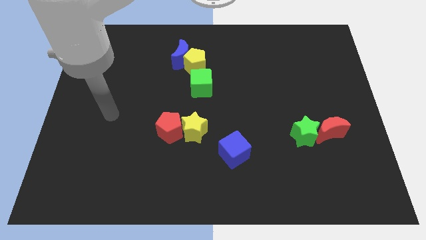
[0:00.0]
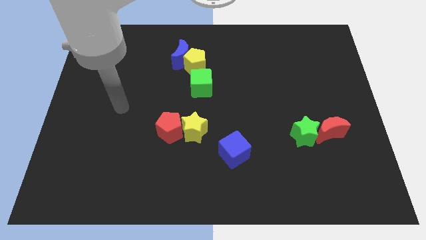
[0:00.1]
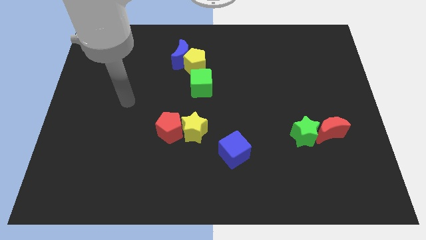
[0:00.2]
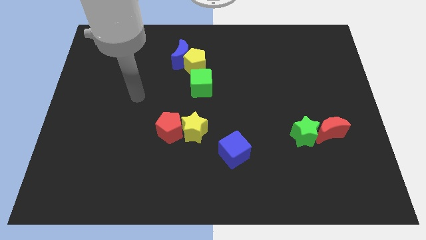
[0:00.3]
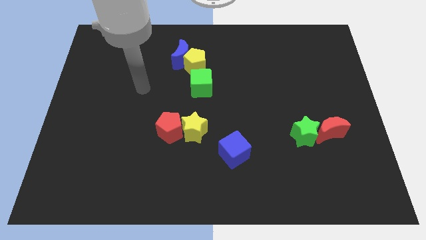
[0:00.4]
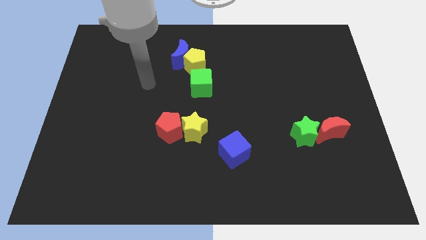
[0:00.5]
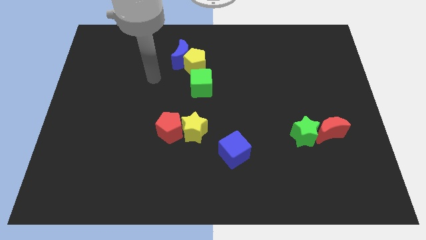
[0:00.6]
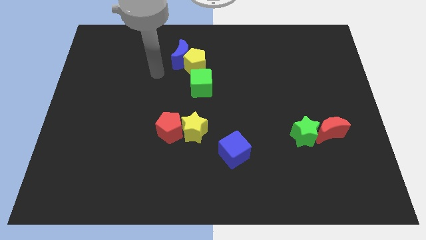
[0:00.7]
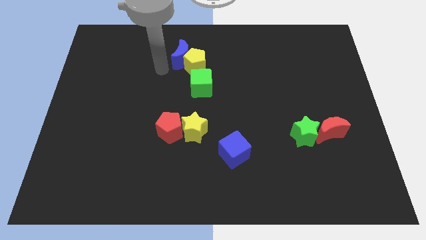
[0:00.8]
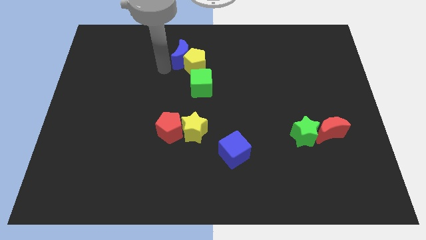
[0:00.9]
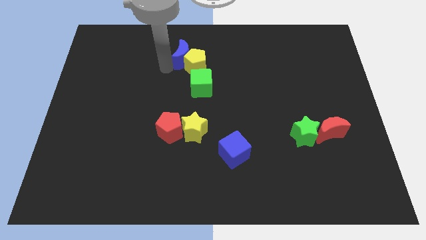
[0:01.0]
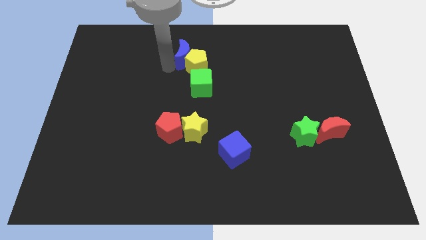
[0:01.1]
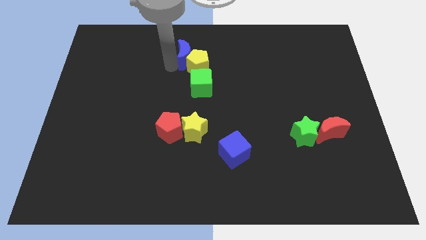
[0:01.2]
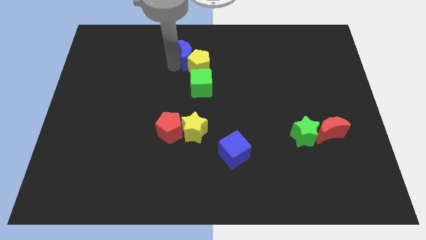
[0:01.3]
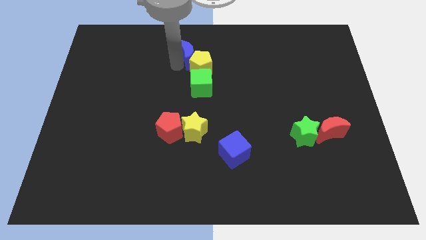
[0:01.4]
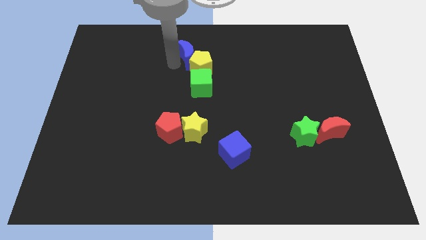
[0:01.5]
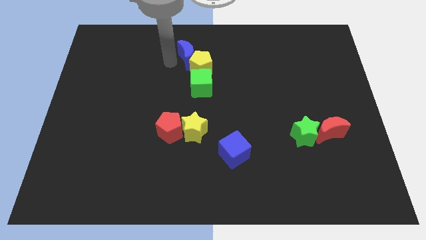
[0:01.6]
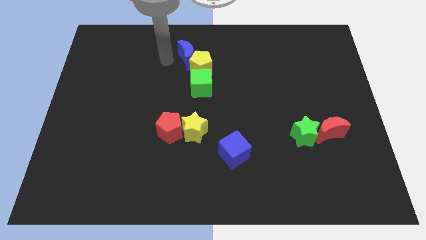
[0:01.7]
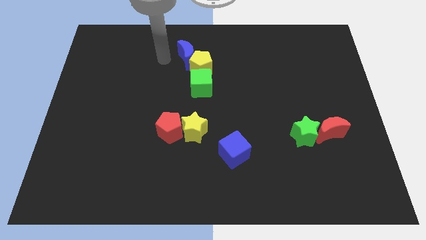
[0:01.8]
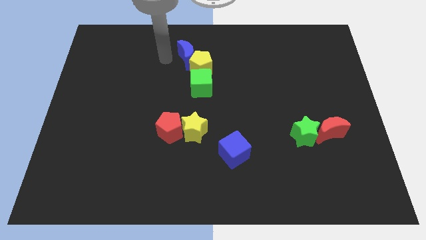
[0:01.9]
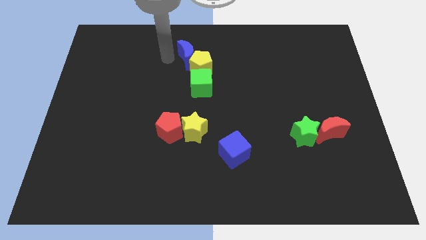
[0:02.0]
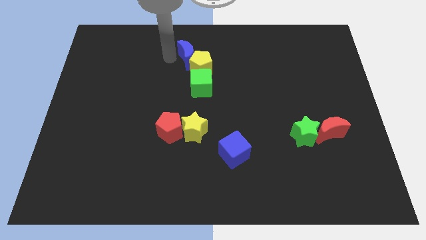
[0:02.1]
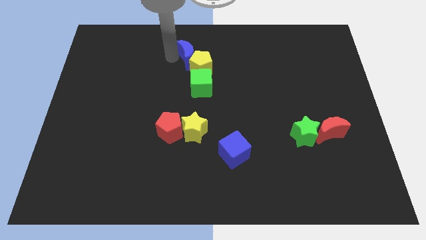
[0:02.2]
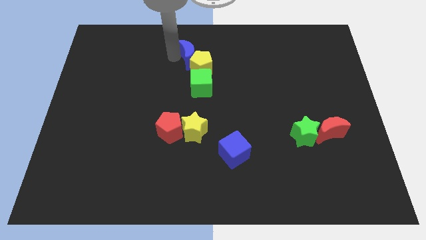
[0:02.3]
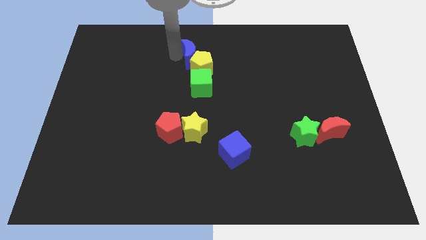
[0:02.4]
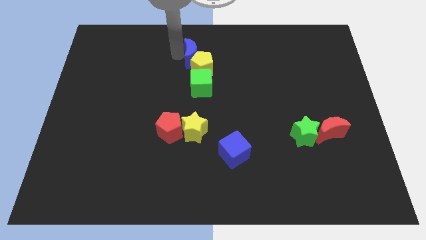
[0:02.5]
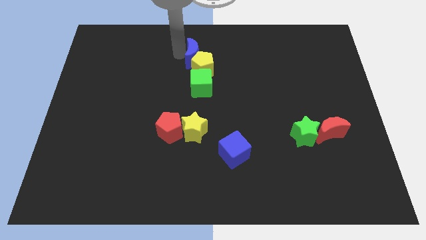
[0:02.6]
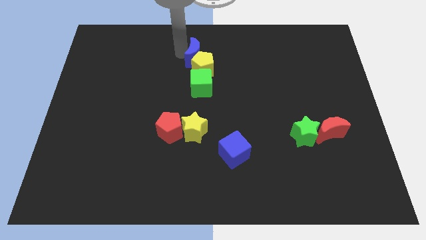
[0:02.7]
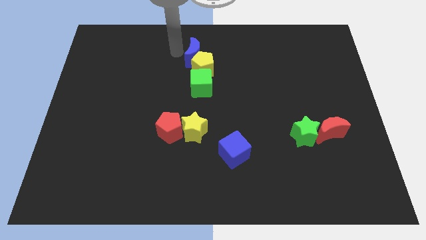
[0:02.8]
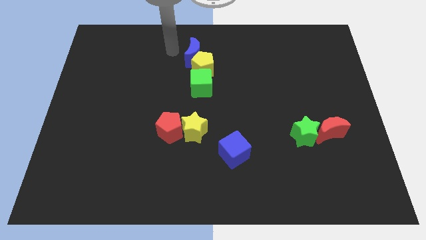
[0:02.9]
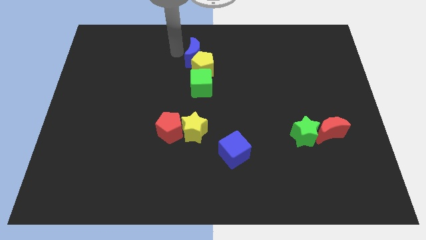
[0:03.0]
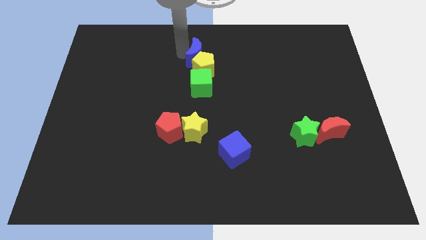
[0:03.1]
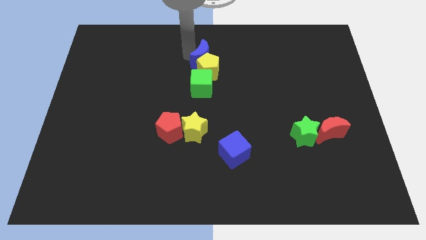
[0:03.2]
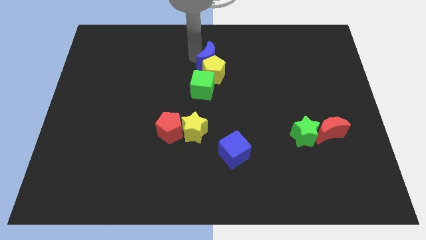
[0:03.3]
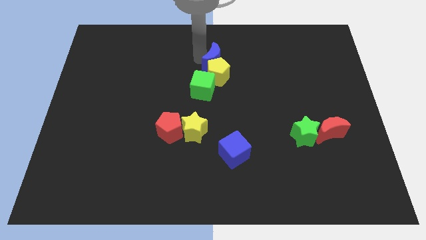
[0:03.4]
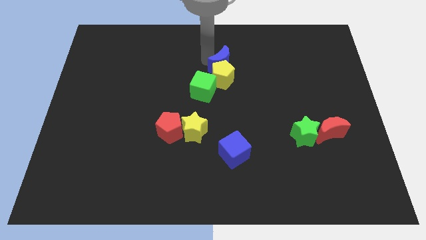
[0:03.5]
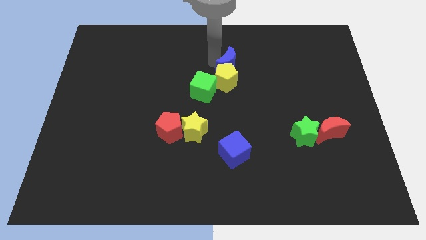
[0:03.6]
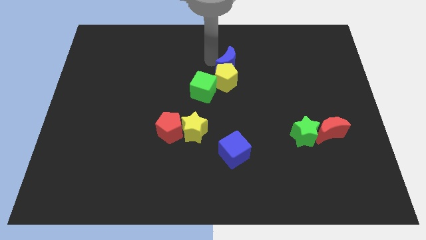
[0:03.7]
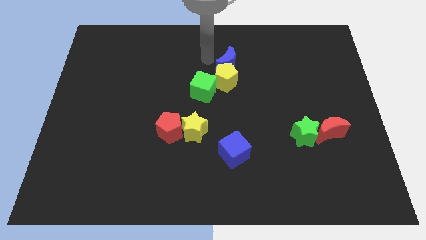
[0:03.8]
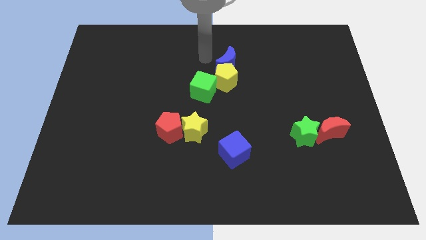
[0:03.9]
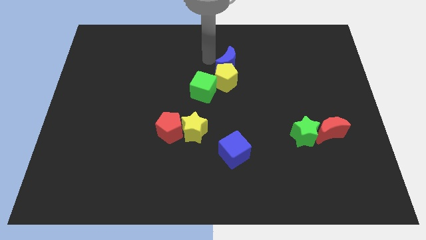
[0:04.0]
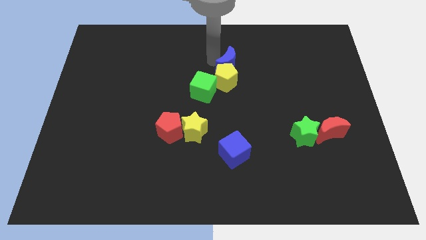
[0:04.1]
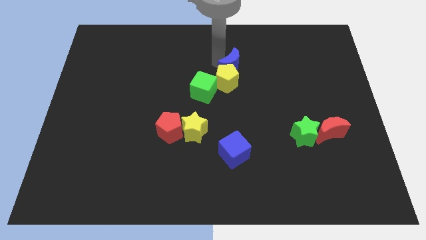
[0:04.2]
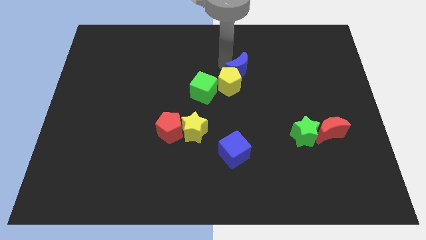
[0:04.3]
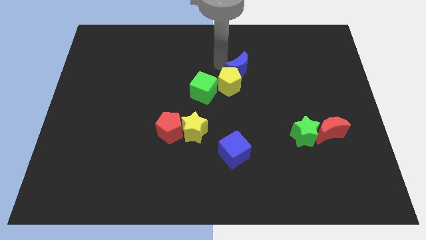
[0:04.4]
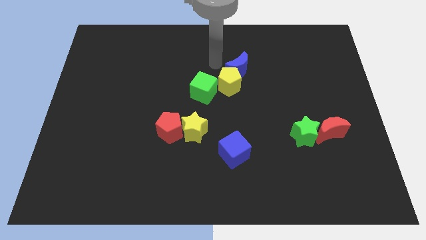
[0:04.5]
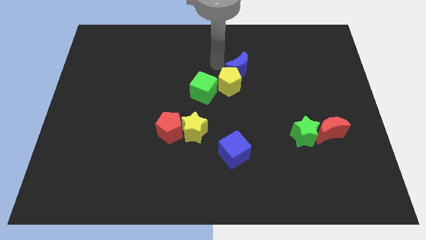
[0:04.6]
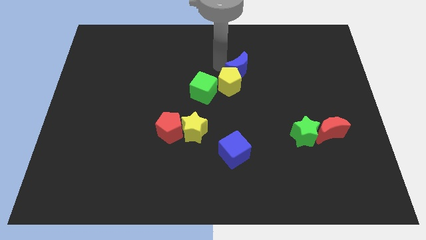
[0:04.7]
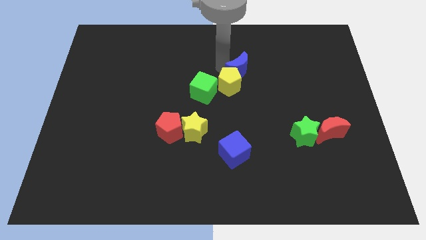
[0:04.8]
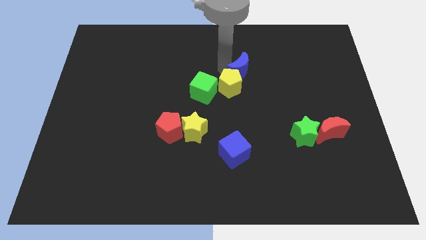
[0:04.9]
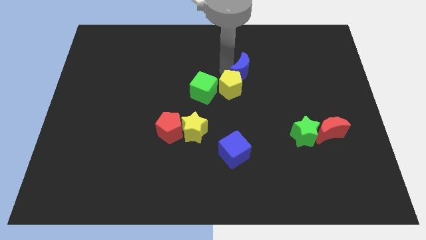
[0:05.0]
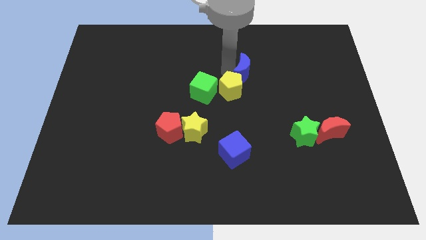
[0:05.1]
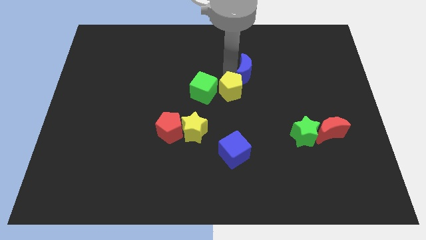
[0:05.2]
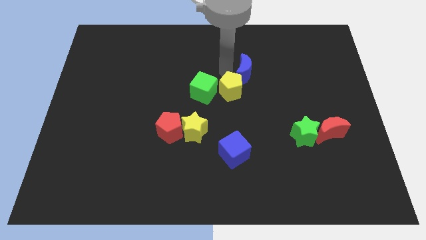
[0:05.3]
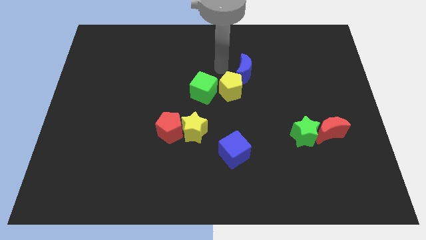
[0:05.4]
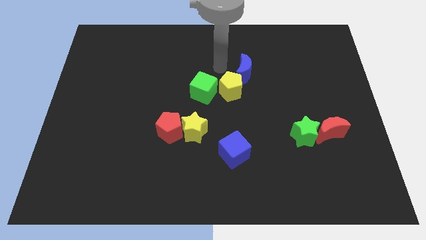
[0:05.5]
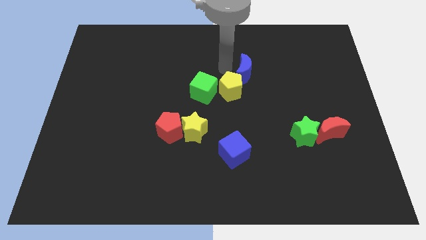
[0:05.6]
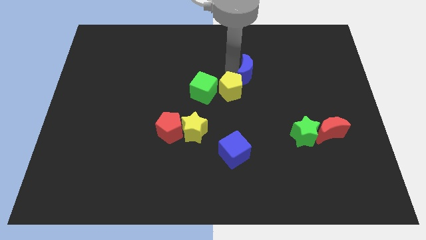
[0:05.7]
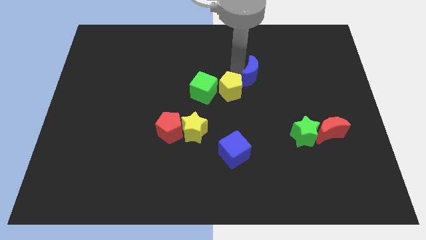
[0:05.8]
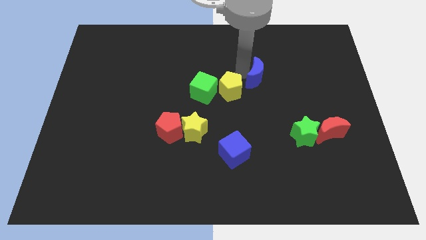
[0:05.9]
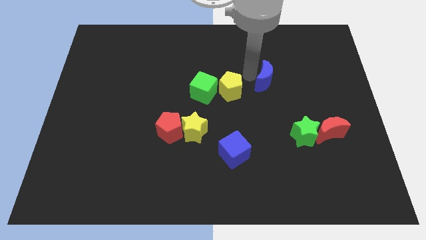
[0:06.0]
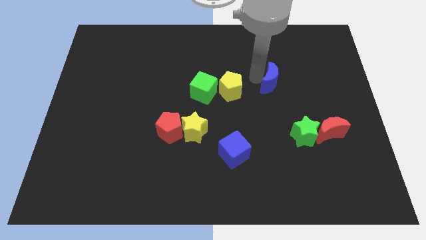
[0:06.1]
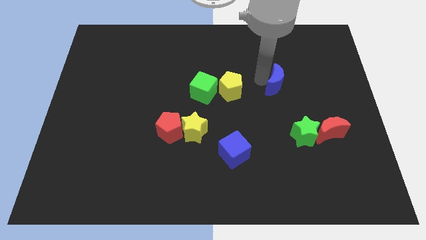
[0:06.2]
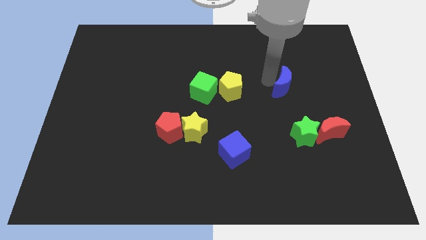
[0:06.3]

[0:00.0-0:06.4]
push the blue moon above the green star

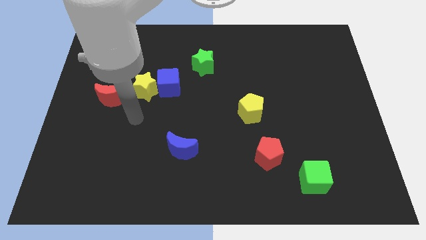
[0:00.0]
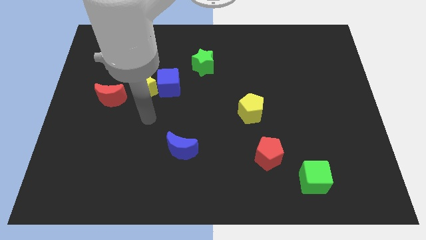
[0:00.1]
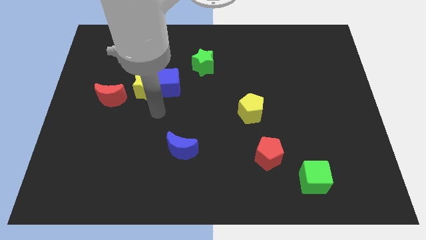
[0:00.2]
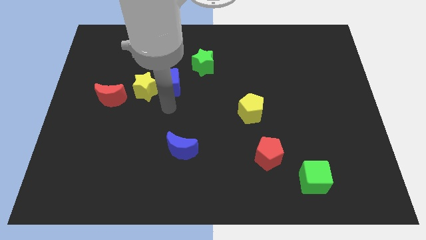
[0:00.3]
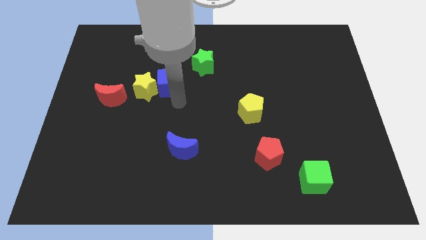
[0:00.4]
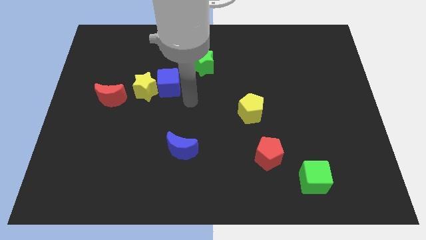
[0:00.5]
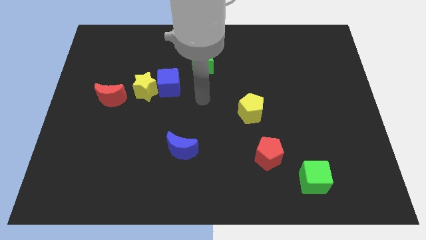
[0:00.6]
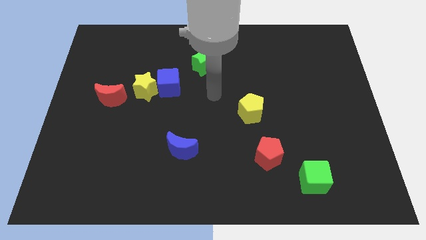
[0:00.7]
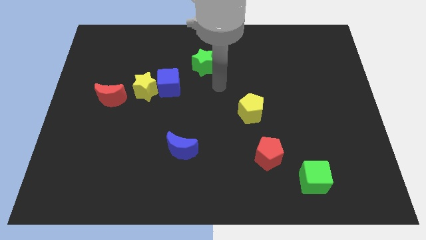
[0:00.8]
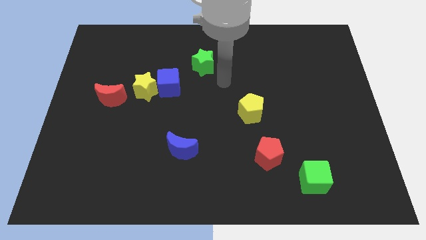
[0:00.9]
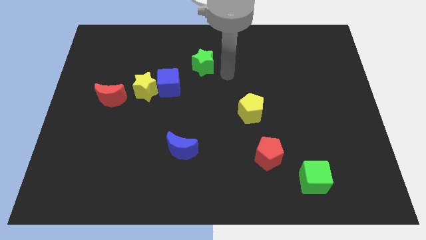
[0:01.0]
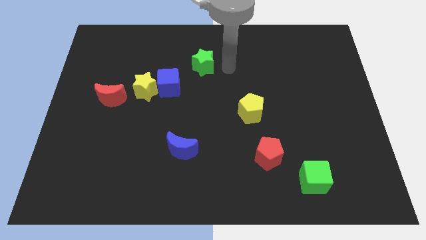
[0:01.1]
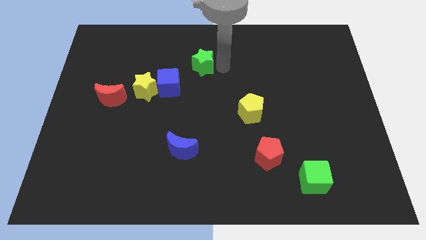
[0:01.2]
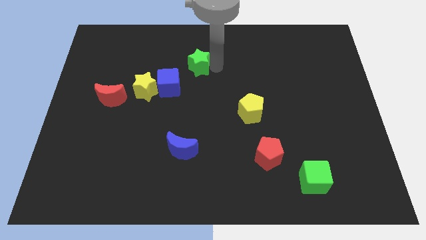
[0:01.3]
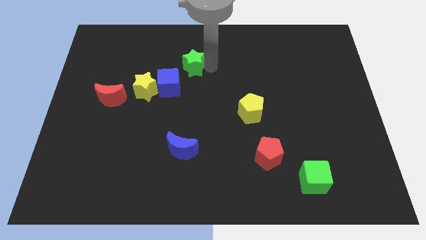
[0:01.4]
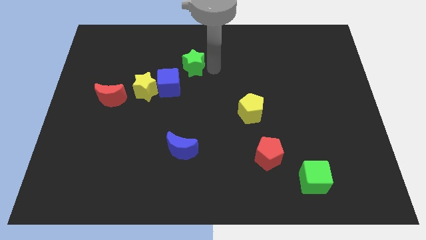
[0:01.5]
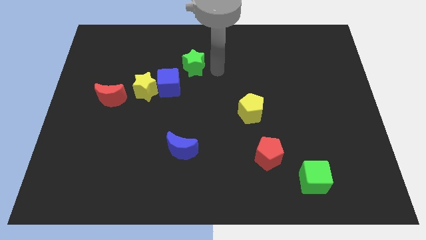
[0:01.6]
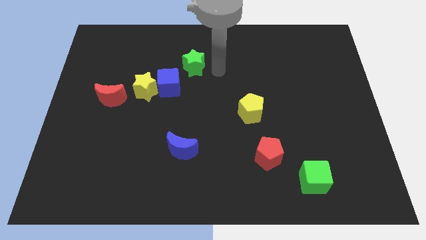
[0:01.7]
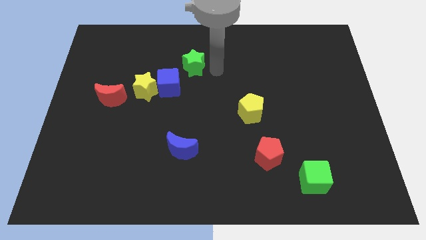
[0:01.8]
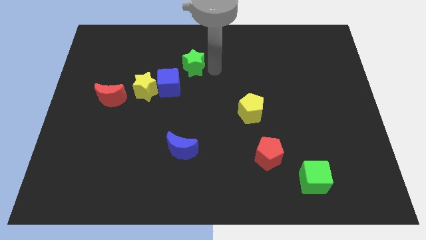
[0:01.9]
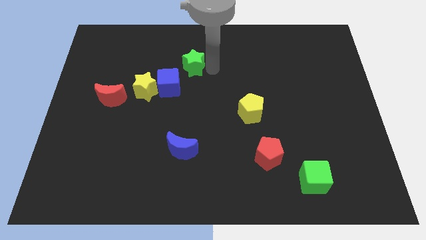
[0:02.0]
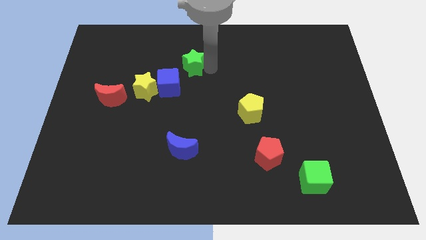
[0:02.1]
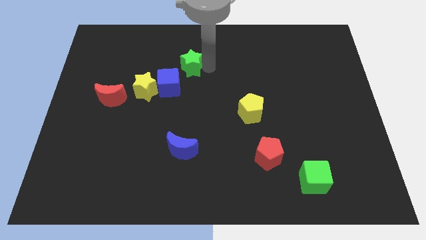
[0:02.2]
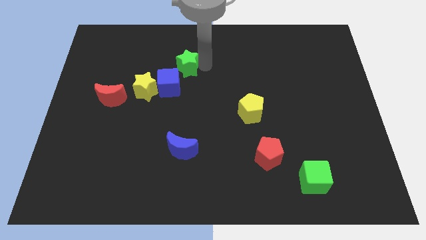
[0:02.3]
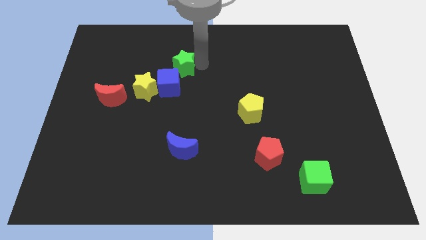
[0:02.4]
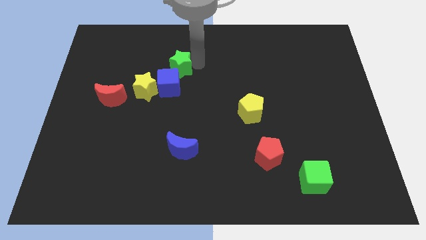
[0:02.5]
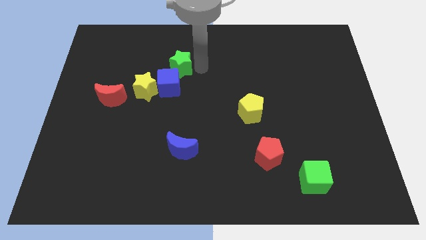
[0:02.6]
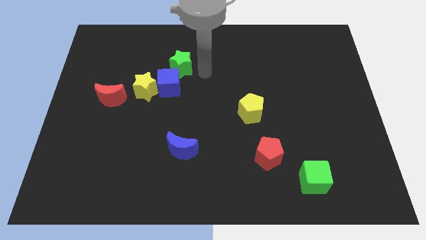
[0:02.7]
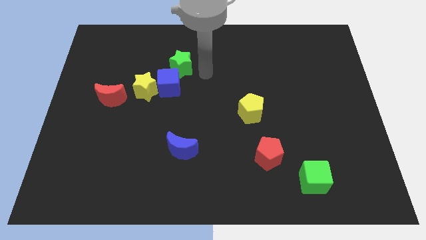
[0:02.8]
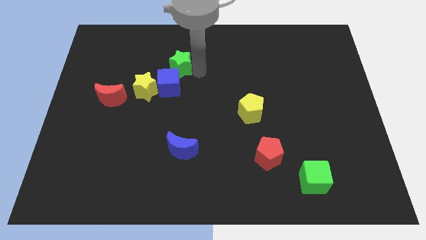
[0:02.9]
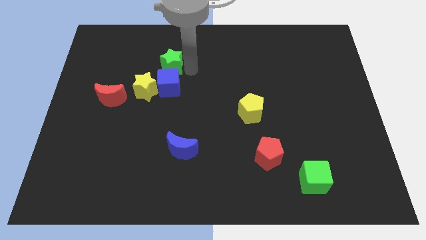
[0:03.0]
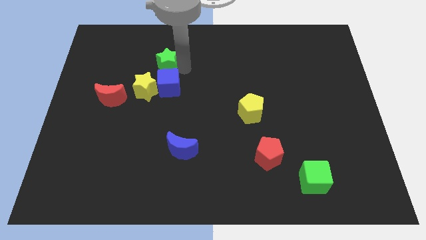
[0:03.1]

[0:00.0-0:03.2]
move the green star to the top side of the yellow star
